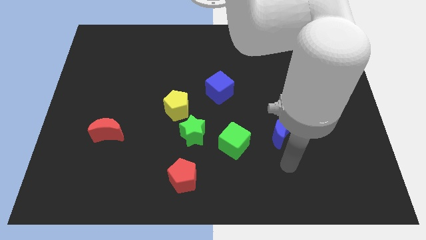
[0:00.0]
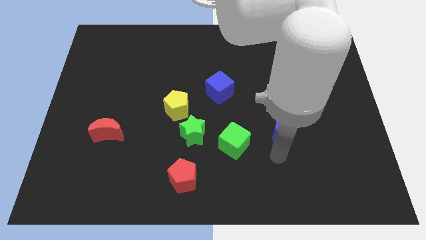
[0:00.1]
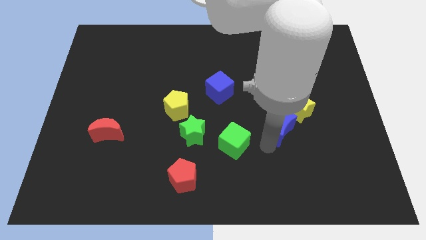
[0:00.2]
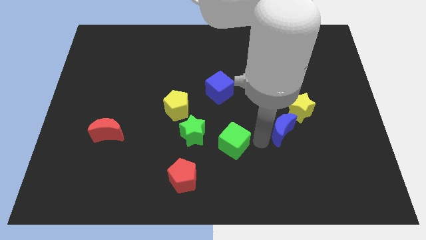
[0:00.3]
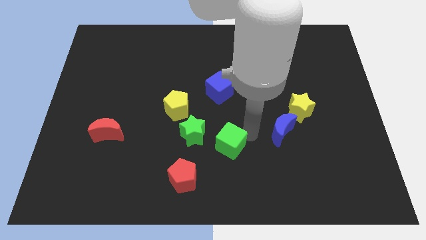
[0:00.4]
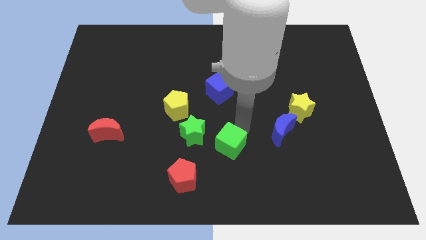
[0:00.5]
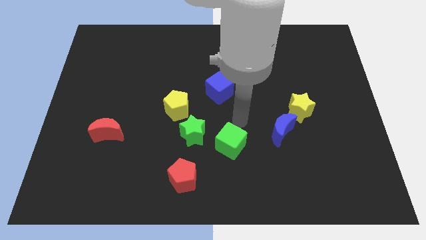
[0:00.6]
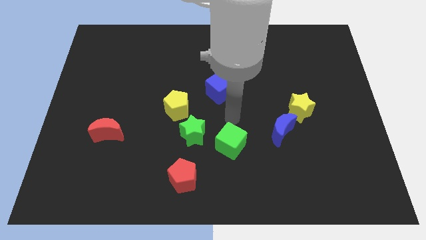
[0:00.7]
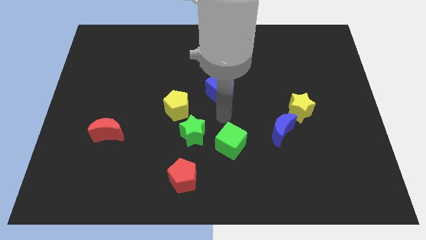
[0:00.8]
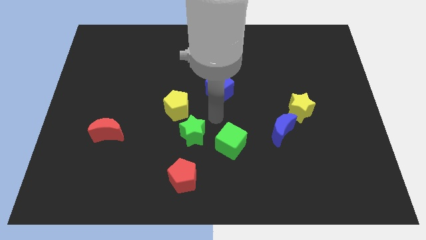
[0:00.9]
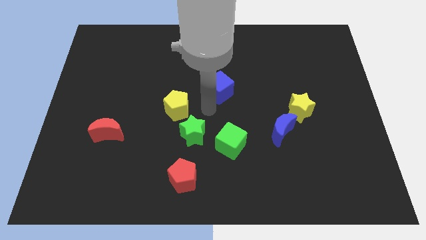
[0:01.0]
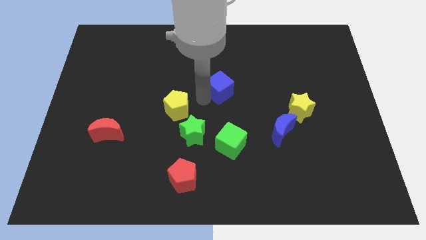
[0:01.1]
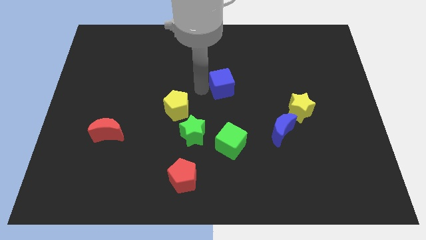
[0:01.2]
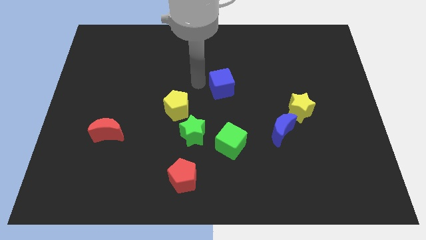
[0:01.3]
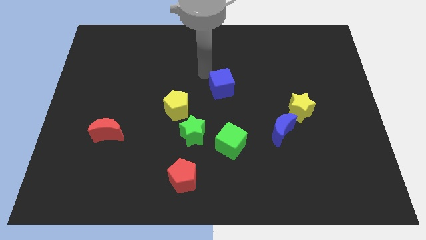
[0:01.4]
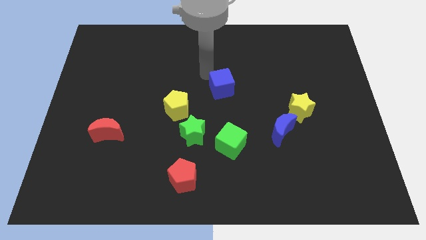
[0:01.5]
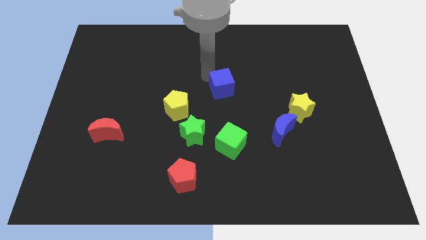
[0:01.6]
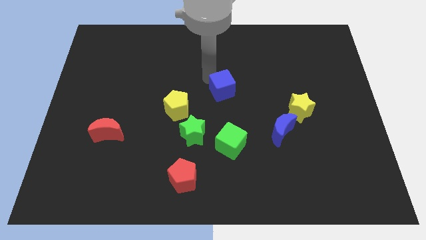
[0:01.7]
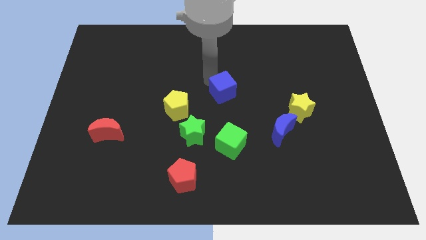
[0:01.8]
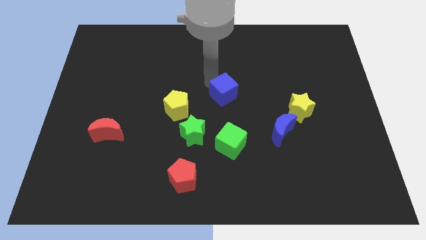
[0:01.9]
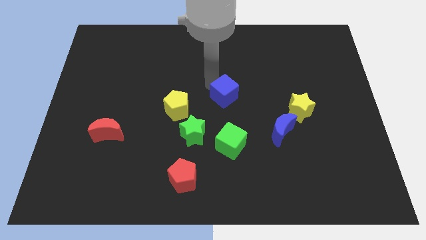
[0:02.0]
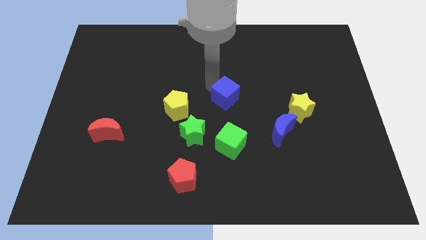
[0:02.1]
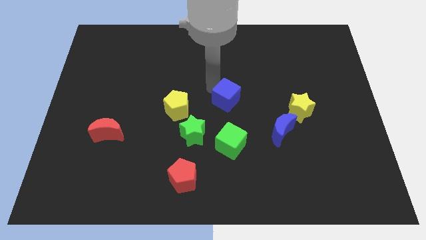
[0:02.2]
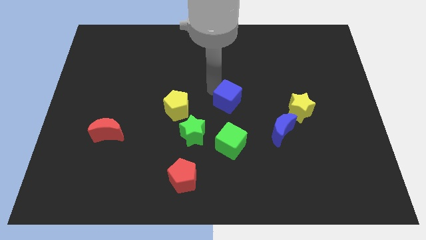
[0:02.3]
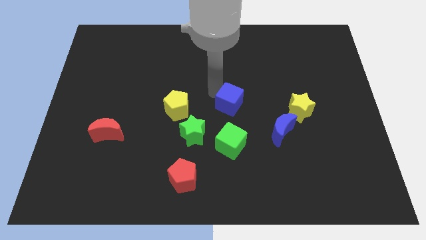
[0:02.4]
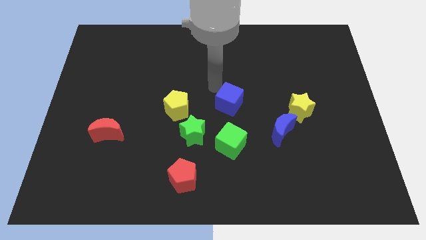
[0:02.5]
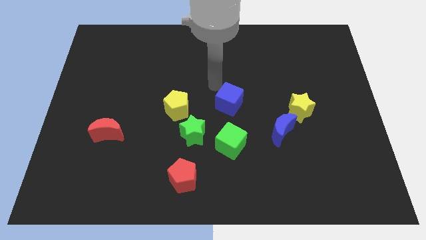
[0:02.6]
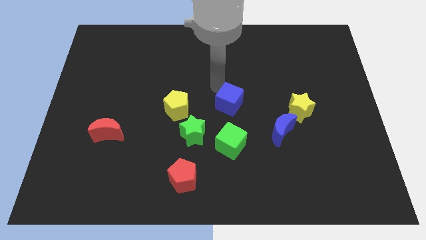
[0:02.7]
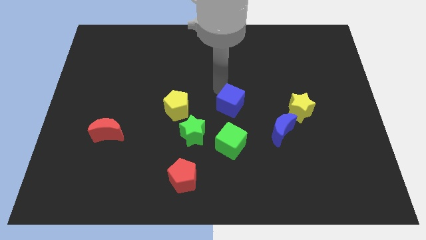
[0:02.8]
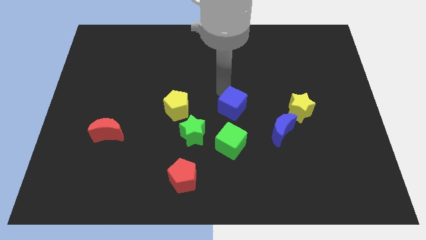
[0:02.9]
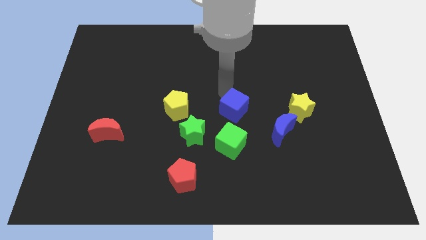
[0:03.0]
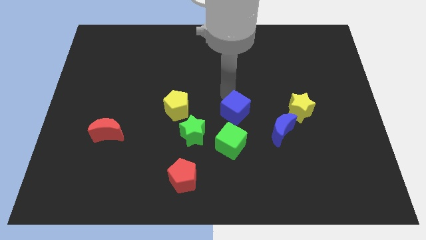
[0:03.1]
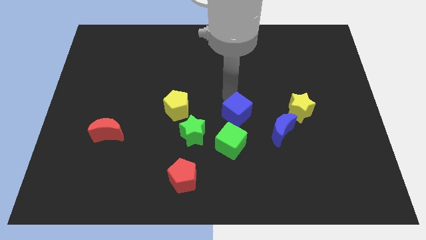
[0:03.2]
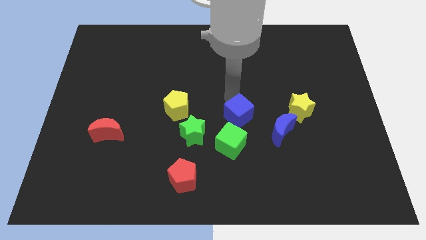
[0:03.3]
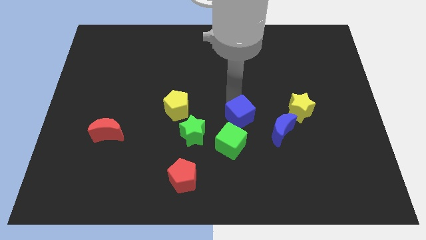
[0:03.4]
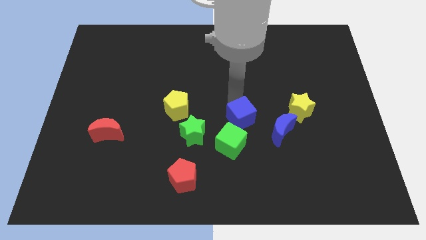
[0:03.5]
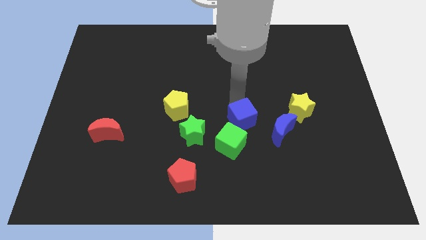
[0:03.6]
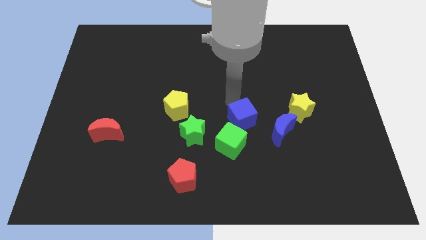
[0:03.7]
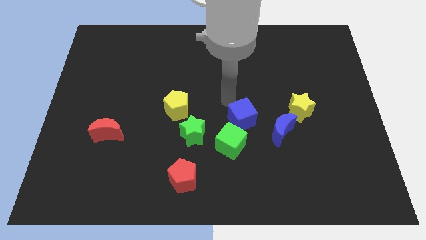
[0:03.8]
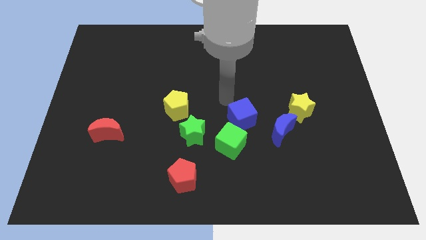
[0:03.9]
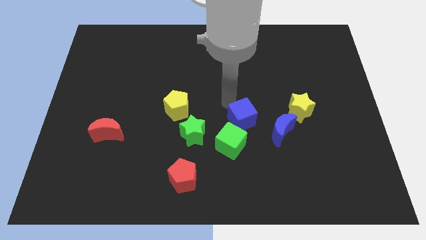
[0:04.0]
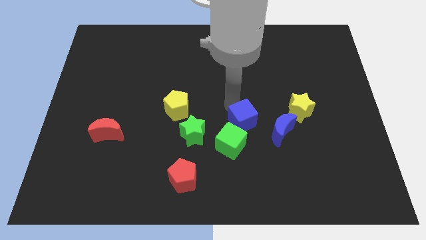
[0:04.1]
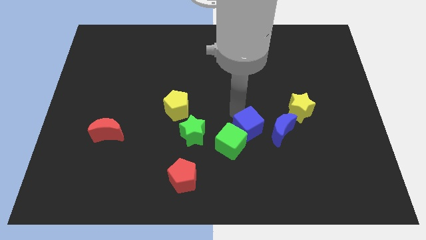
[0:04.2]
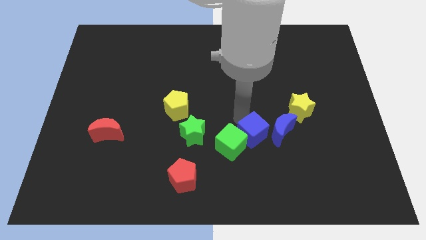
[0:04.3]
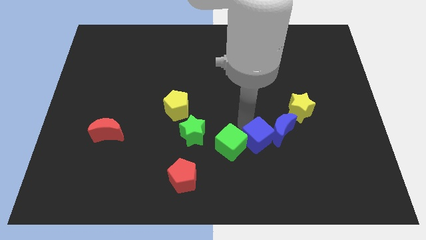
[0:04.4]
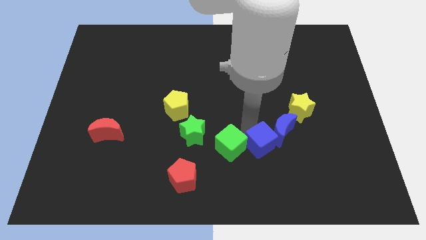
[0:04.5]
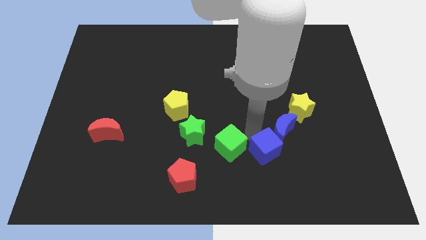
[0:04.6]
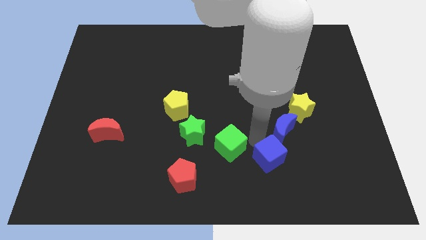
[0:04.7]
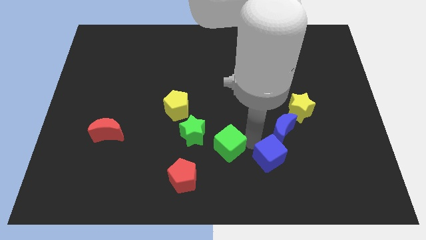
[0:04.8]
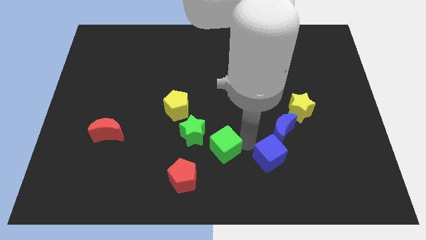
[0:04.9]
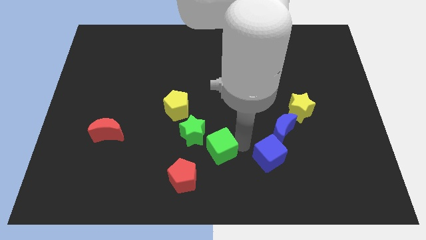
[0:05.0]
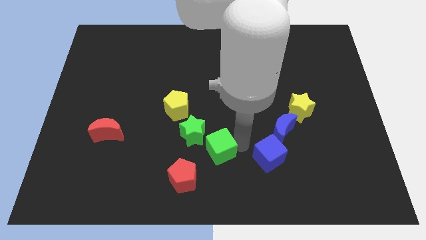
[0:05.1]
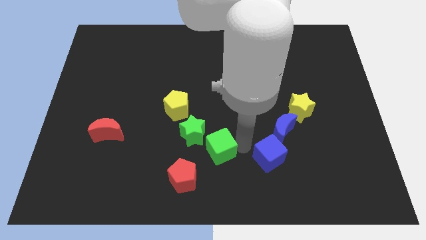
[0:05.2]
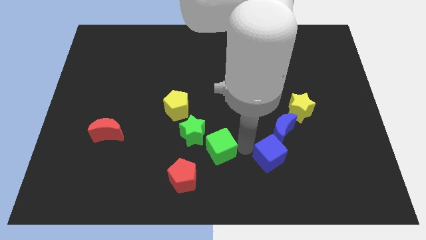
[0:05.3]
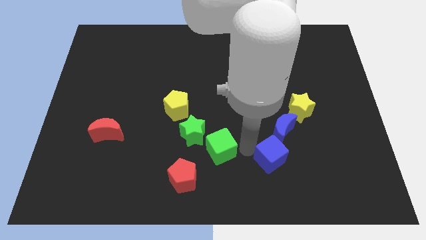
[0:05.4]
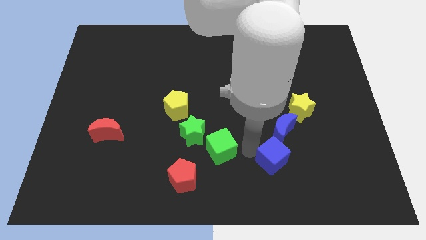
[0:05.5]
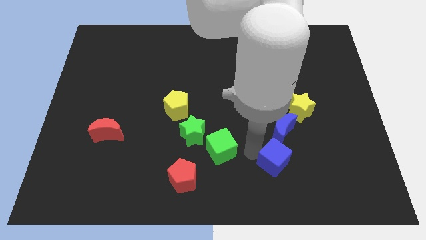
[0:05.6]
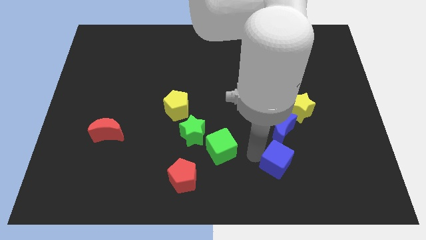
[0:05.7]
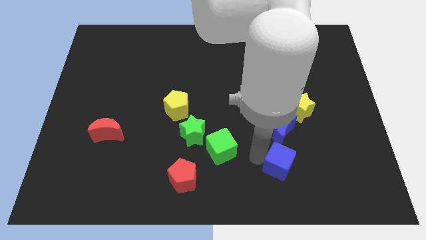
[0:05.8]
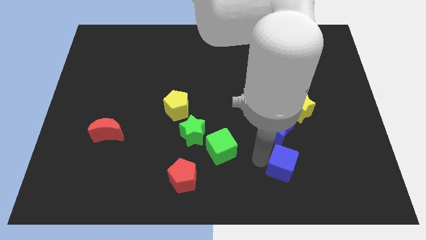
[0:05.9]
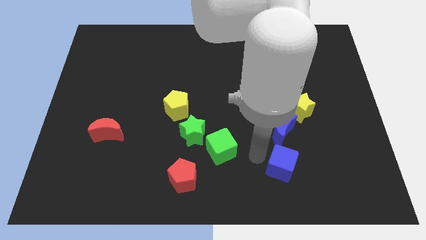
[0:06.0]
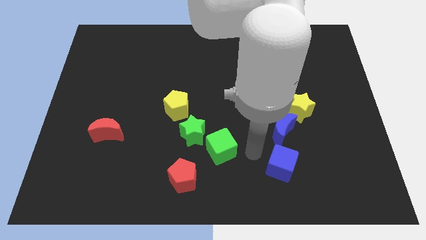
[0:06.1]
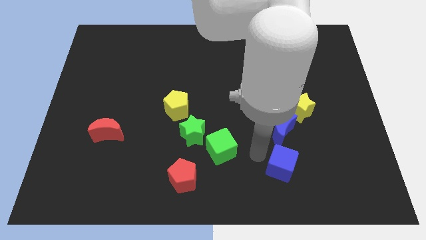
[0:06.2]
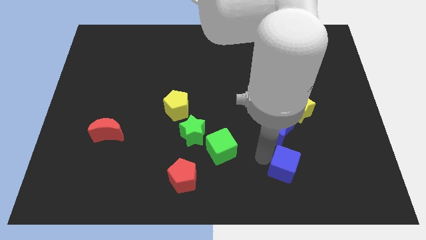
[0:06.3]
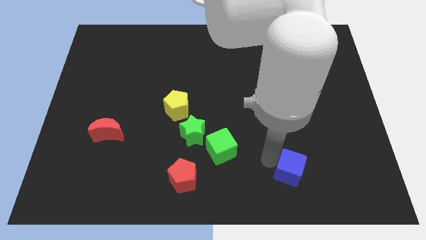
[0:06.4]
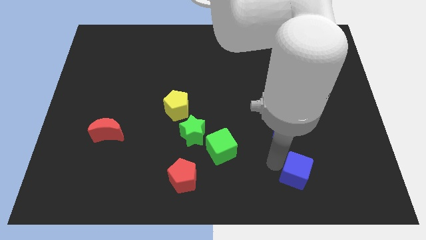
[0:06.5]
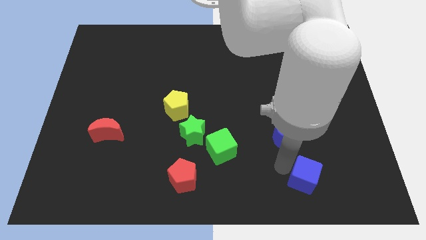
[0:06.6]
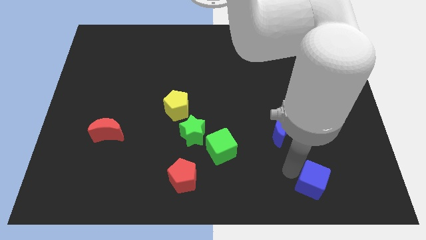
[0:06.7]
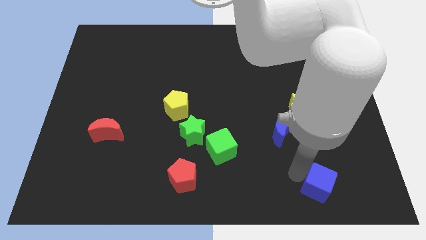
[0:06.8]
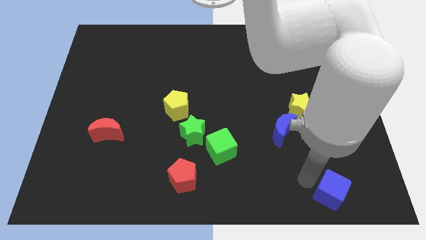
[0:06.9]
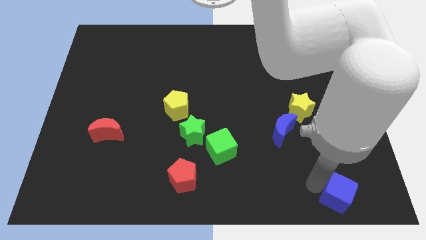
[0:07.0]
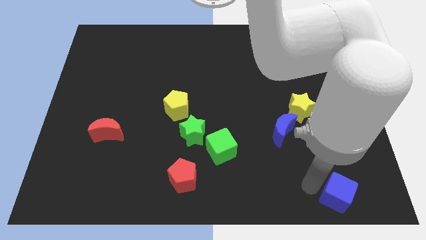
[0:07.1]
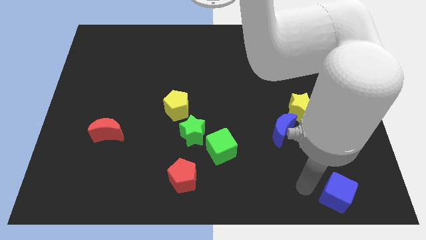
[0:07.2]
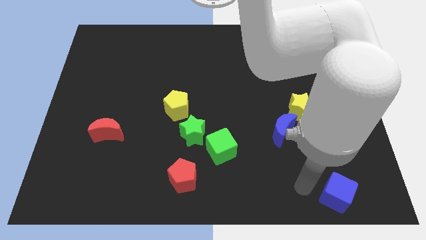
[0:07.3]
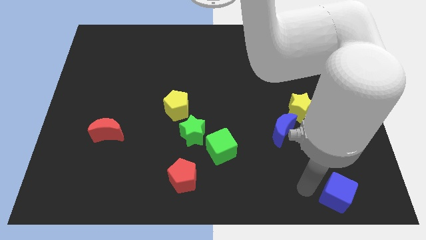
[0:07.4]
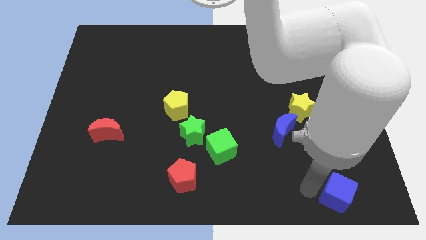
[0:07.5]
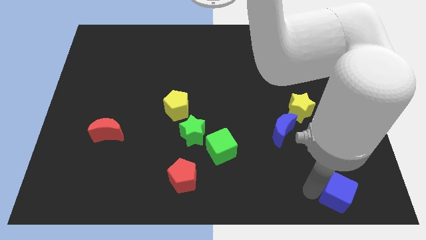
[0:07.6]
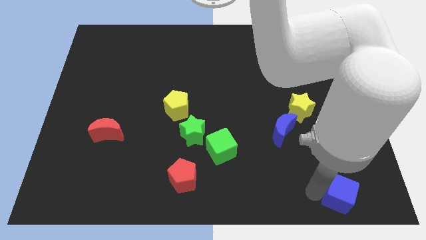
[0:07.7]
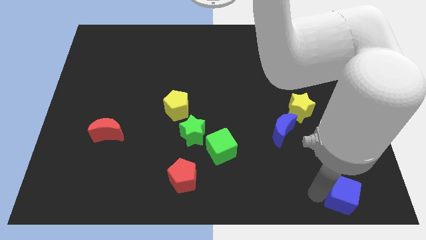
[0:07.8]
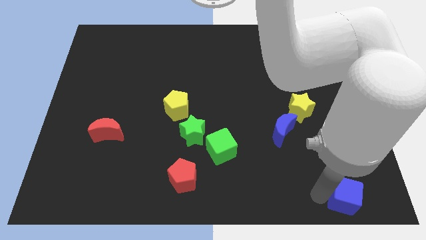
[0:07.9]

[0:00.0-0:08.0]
slide the blue cube to the bottom right
